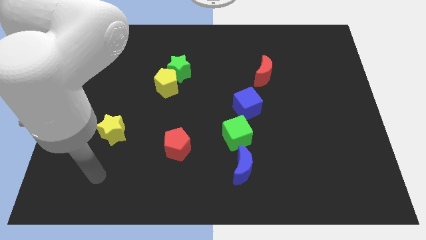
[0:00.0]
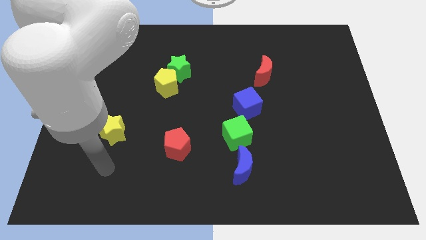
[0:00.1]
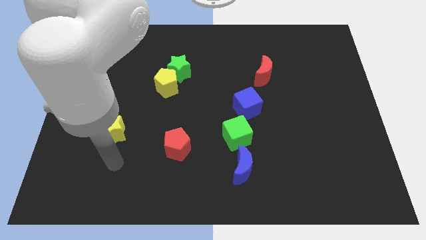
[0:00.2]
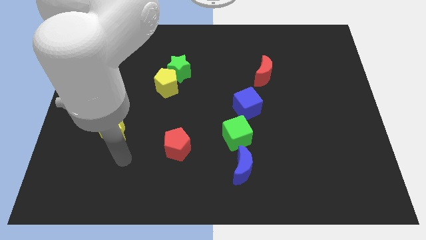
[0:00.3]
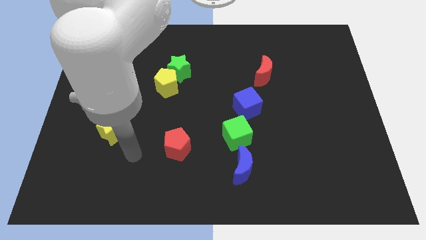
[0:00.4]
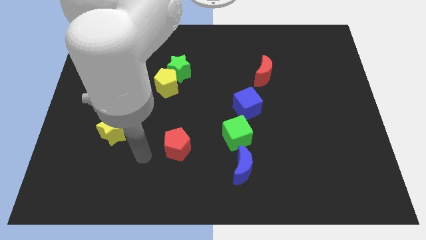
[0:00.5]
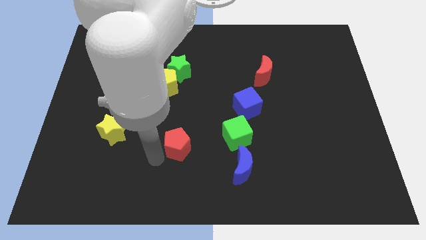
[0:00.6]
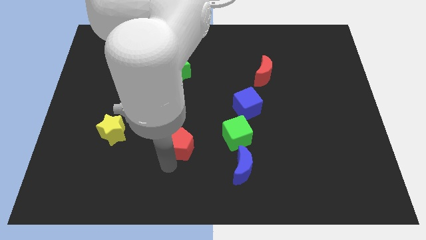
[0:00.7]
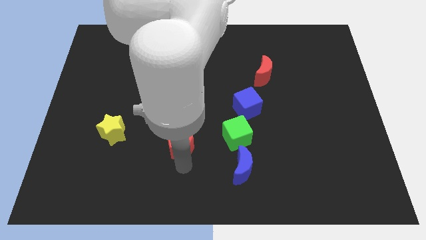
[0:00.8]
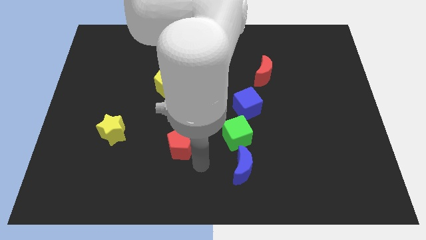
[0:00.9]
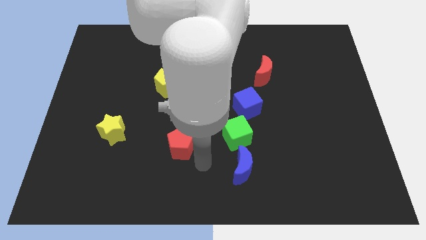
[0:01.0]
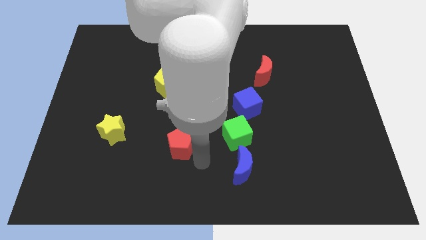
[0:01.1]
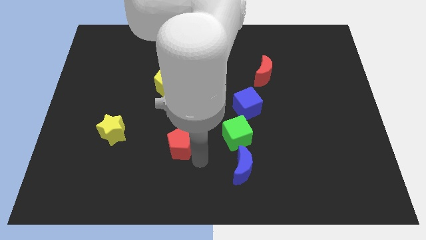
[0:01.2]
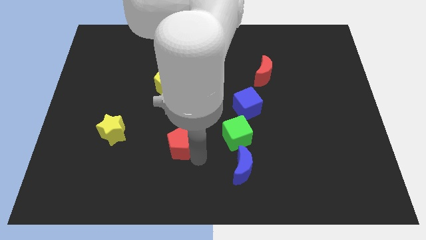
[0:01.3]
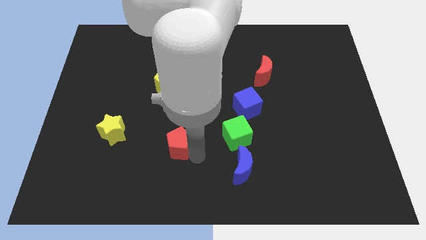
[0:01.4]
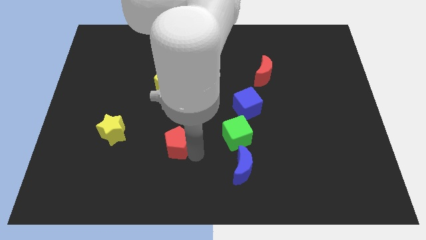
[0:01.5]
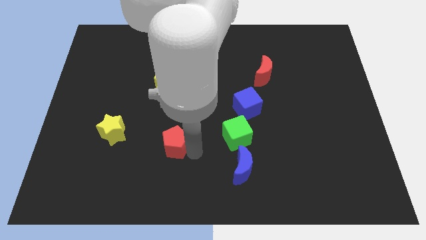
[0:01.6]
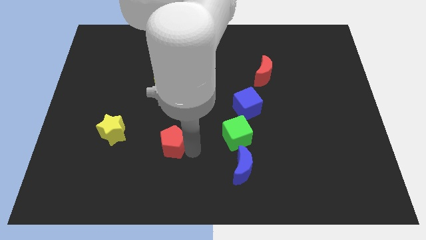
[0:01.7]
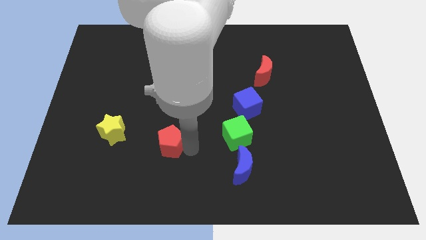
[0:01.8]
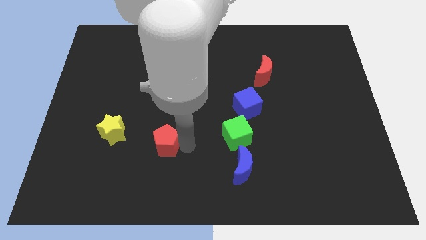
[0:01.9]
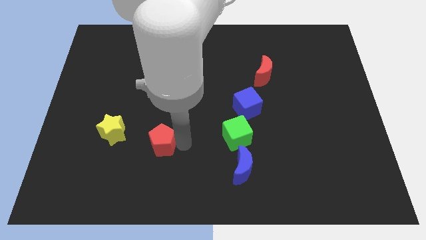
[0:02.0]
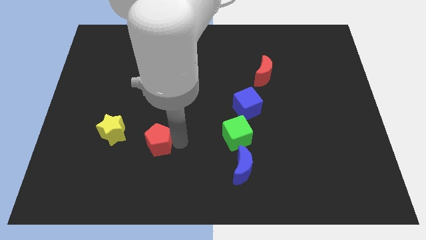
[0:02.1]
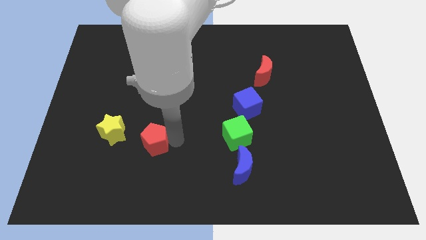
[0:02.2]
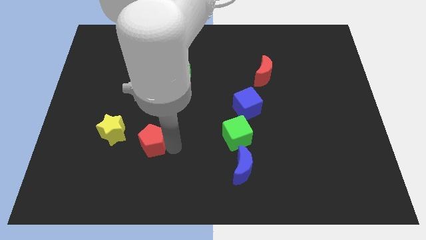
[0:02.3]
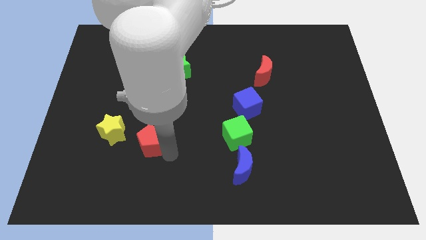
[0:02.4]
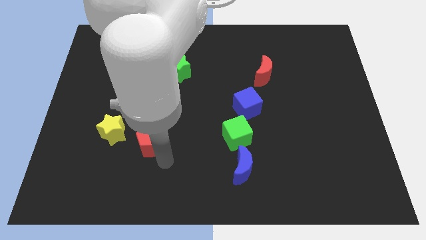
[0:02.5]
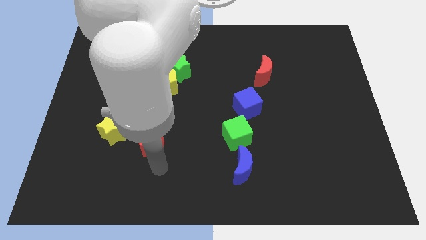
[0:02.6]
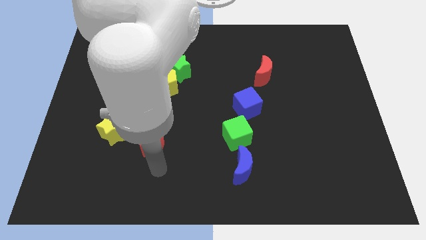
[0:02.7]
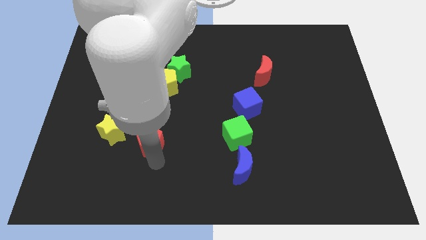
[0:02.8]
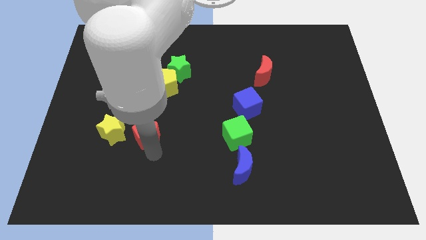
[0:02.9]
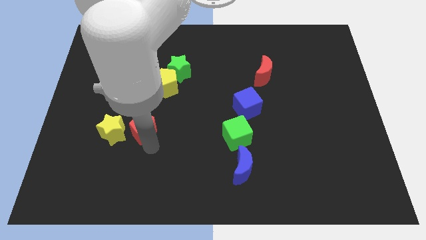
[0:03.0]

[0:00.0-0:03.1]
move the red pentagon diagonally upwards and to the left a bit

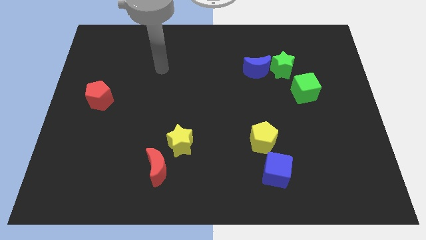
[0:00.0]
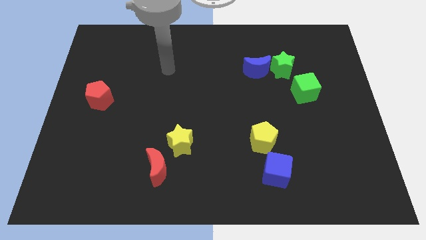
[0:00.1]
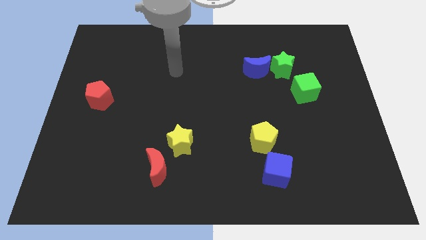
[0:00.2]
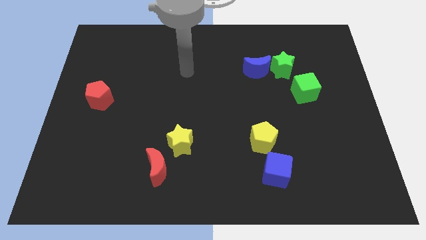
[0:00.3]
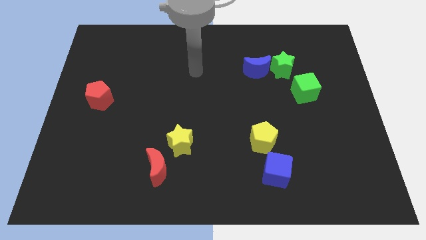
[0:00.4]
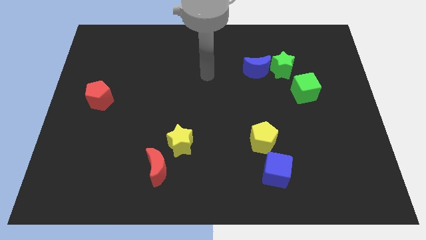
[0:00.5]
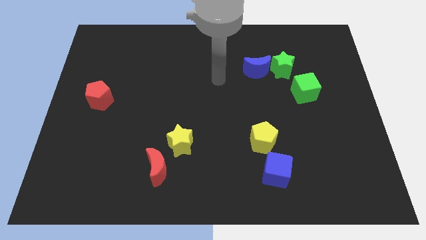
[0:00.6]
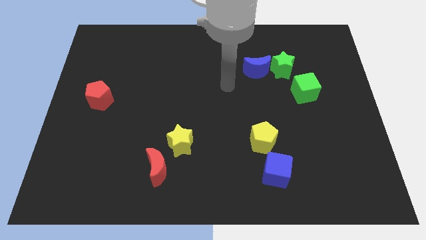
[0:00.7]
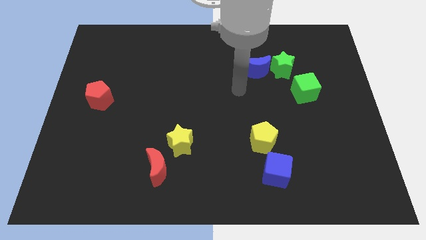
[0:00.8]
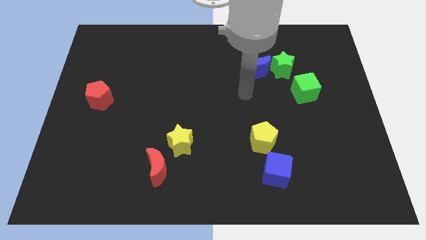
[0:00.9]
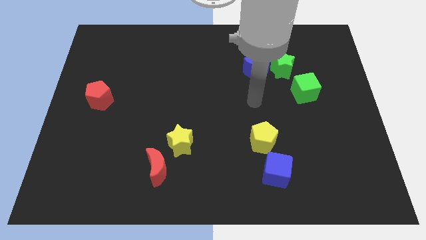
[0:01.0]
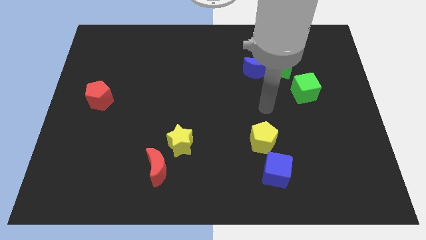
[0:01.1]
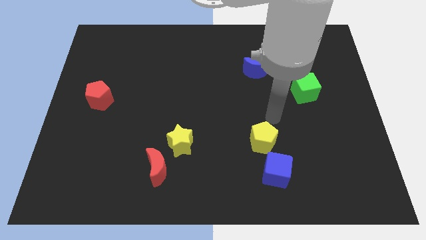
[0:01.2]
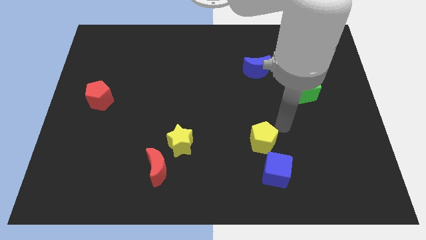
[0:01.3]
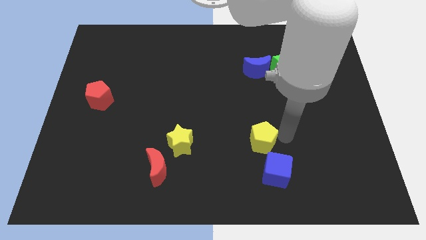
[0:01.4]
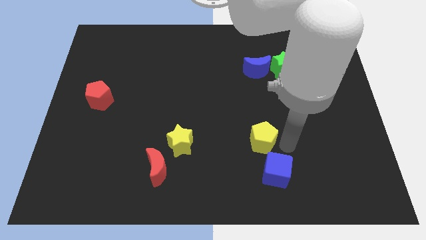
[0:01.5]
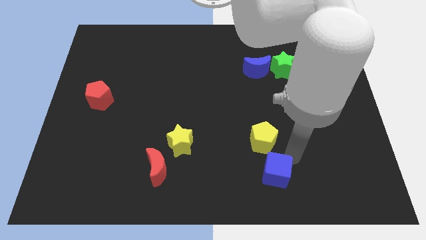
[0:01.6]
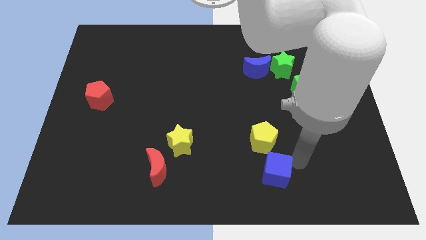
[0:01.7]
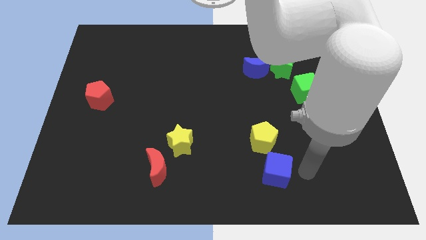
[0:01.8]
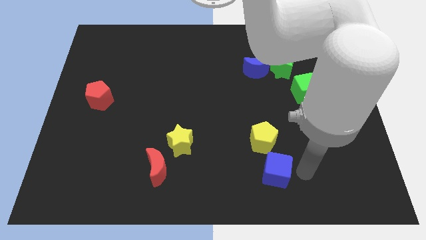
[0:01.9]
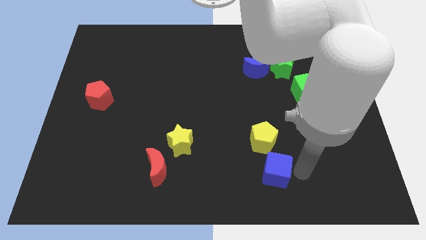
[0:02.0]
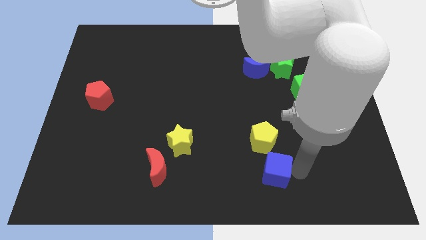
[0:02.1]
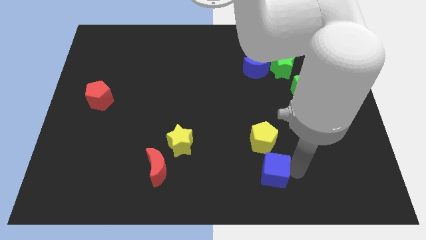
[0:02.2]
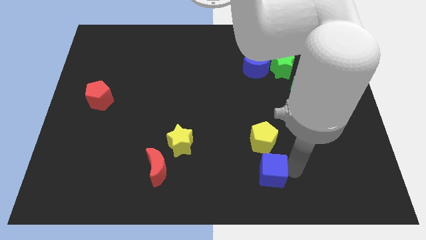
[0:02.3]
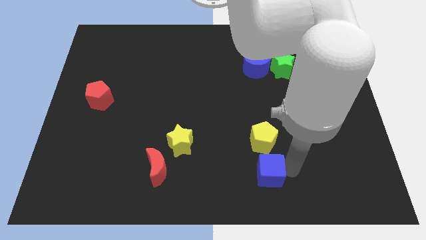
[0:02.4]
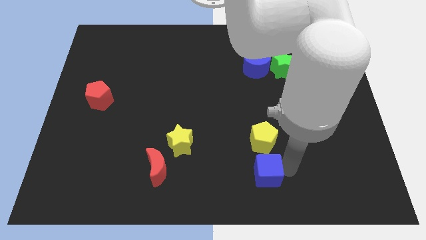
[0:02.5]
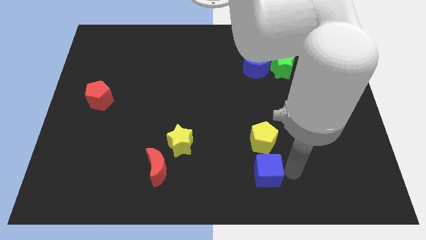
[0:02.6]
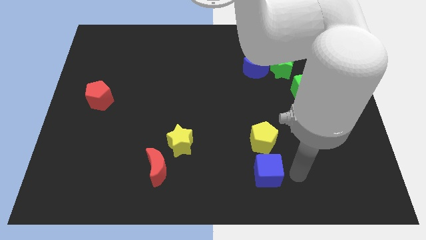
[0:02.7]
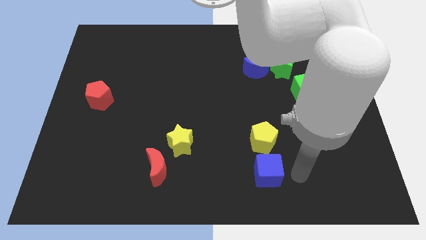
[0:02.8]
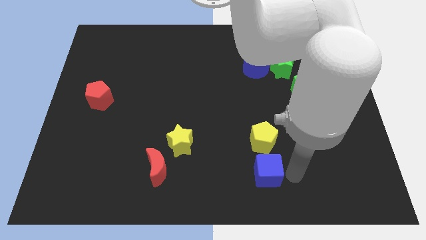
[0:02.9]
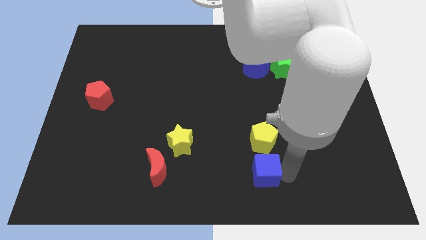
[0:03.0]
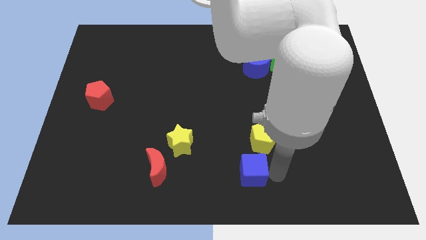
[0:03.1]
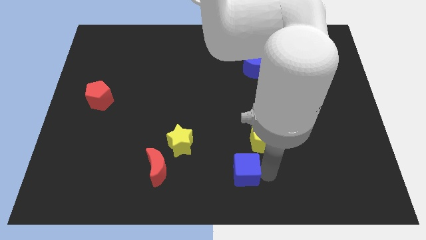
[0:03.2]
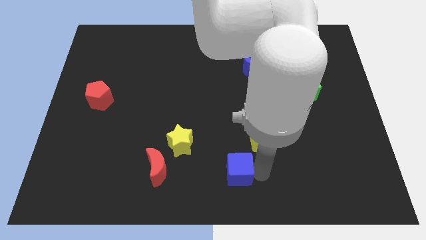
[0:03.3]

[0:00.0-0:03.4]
slide the blue cube a little bit to the left

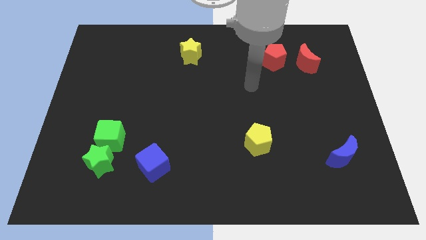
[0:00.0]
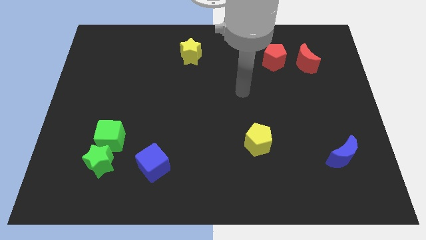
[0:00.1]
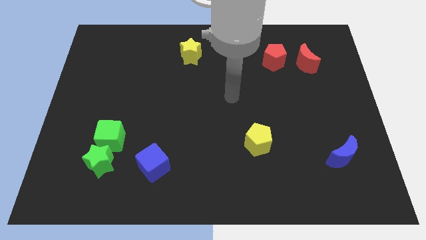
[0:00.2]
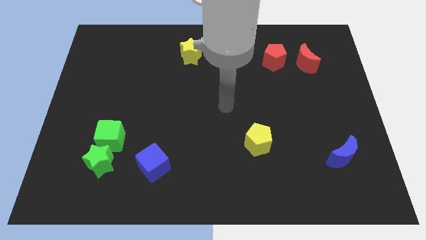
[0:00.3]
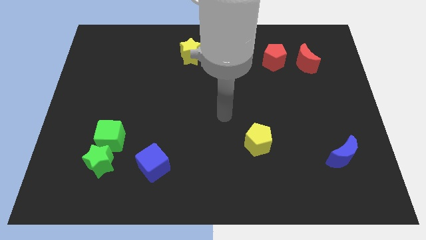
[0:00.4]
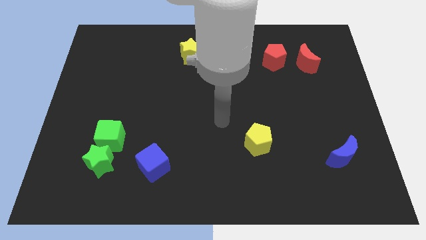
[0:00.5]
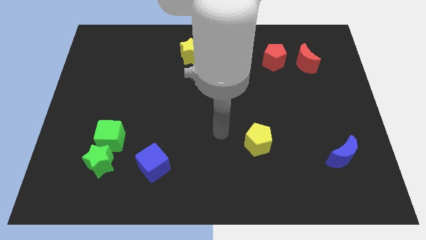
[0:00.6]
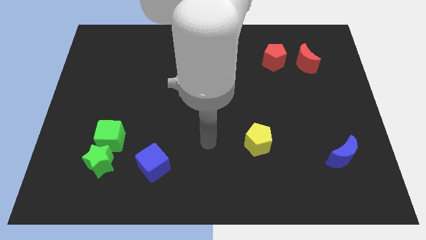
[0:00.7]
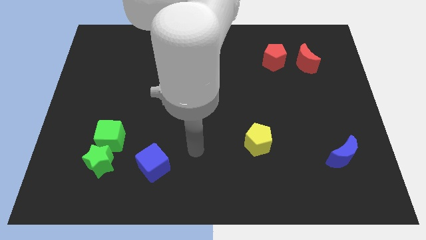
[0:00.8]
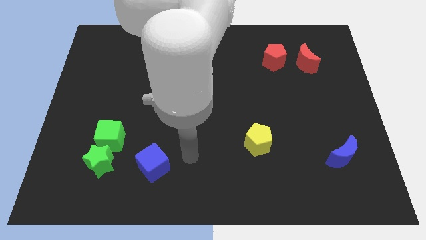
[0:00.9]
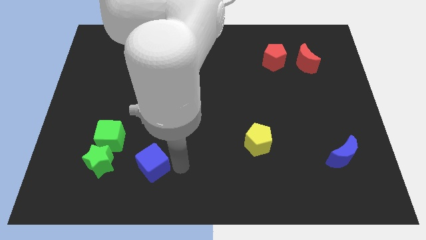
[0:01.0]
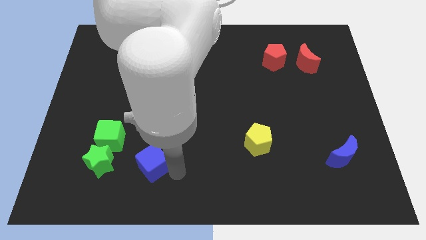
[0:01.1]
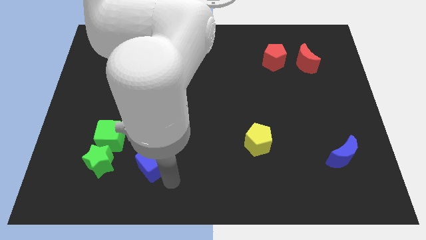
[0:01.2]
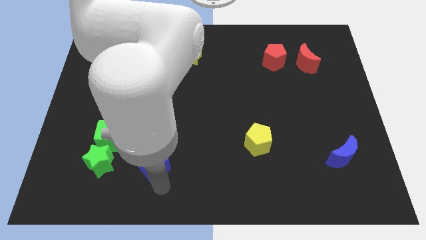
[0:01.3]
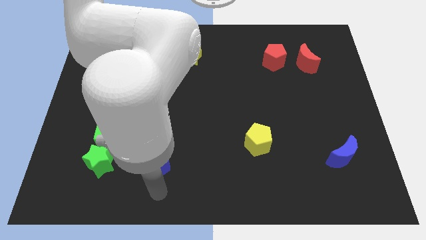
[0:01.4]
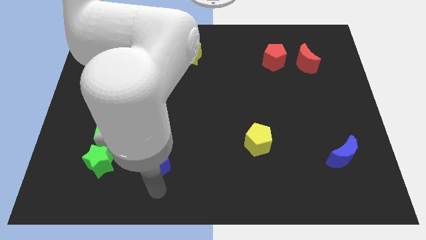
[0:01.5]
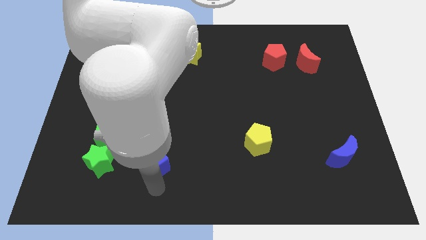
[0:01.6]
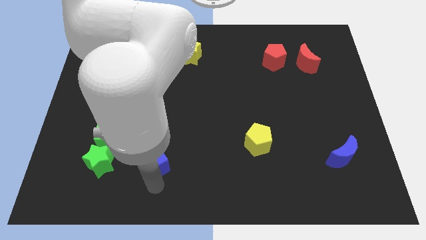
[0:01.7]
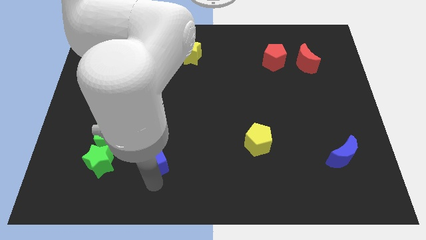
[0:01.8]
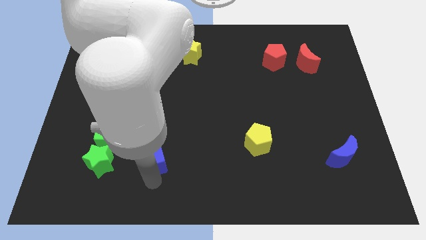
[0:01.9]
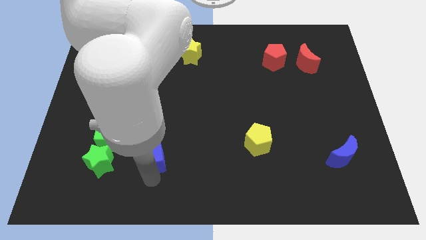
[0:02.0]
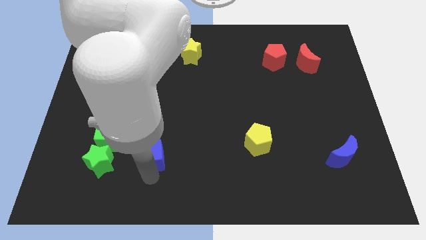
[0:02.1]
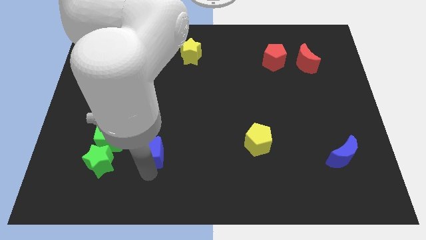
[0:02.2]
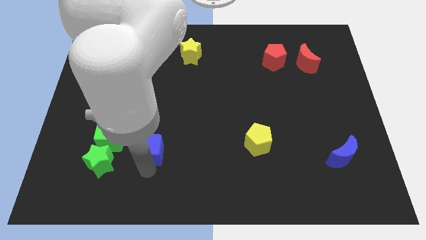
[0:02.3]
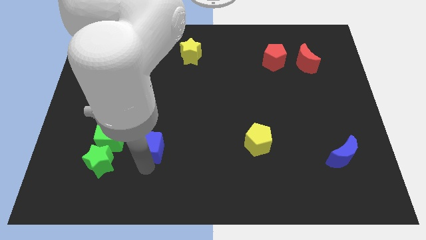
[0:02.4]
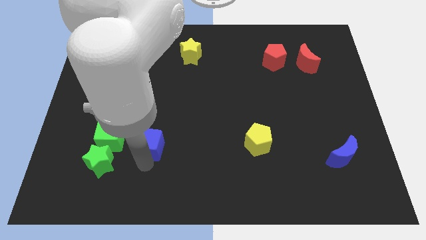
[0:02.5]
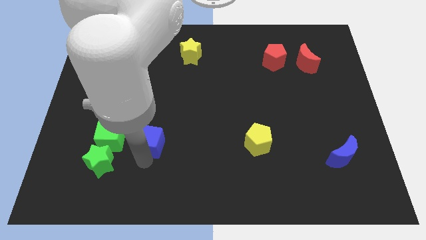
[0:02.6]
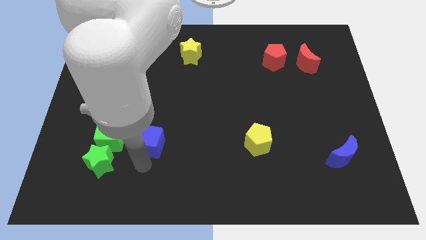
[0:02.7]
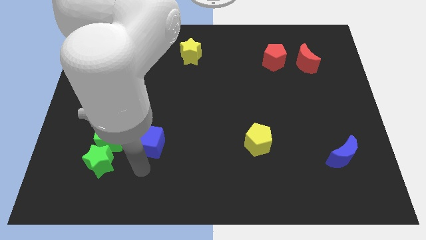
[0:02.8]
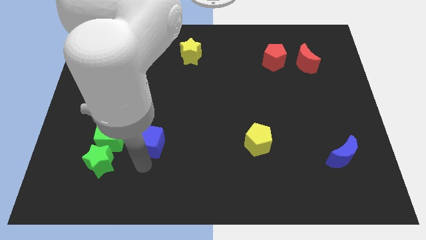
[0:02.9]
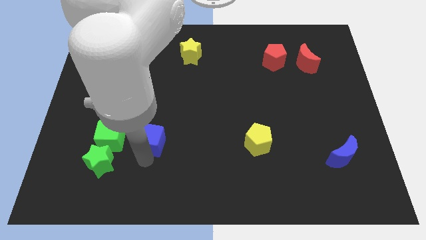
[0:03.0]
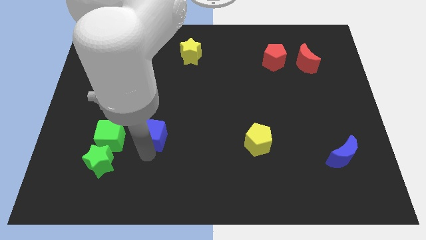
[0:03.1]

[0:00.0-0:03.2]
push the blue cube upwards somewhat
